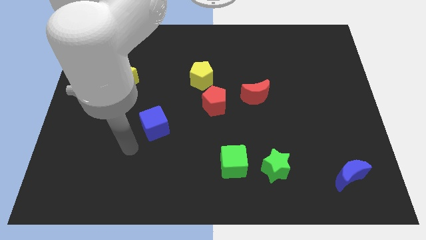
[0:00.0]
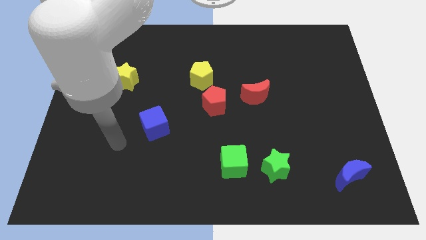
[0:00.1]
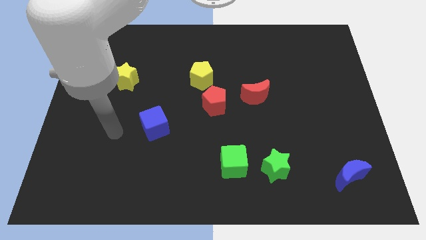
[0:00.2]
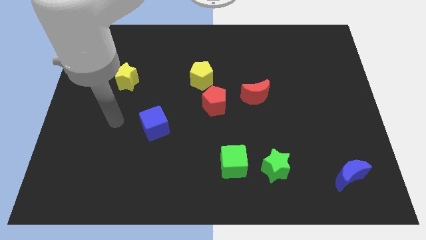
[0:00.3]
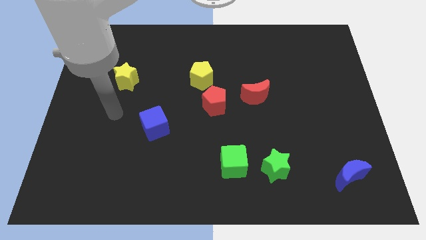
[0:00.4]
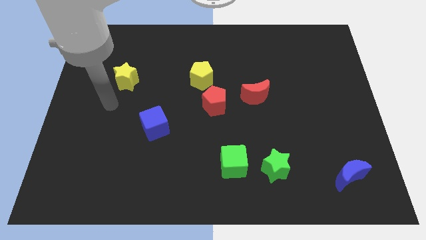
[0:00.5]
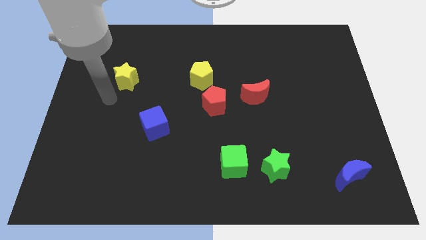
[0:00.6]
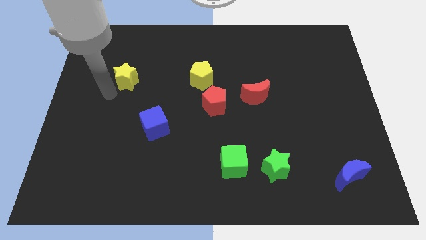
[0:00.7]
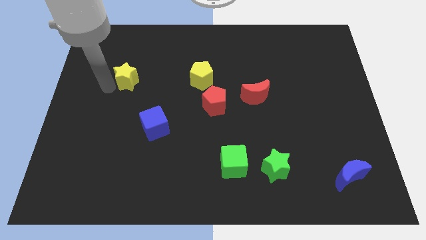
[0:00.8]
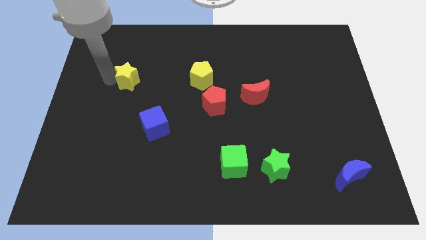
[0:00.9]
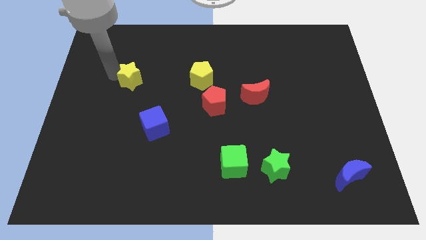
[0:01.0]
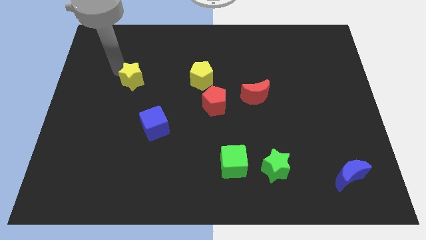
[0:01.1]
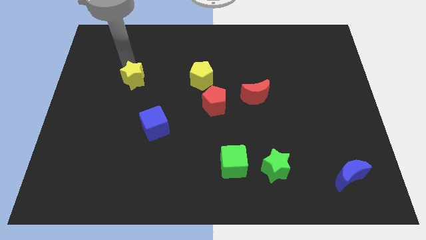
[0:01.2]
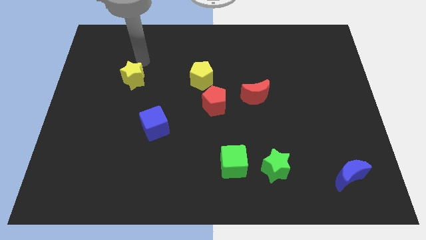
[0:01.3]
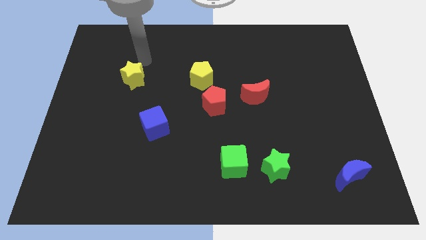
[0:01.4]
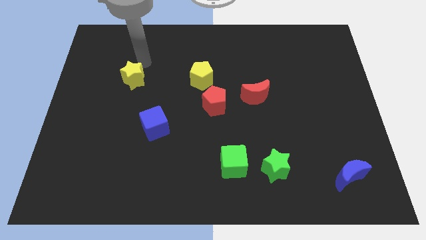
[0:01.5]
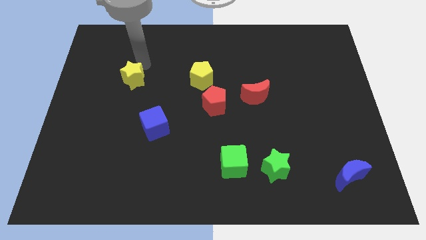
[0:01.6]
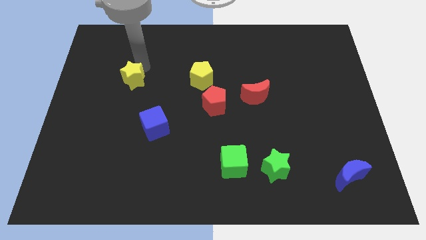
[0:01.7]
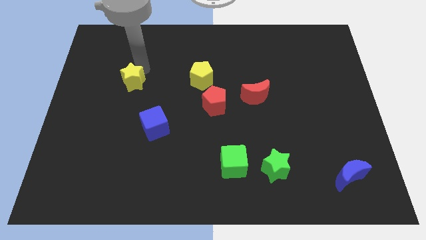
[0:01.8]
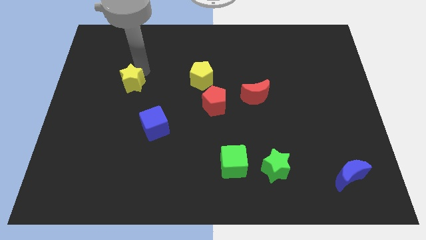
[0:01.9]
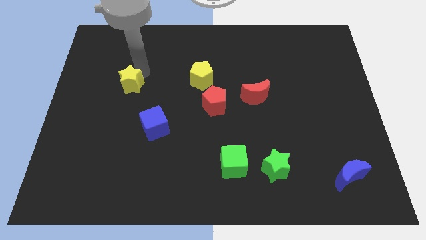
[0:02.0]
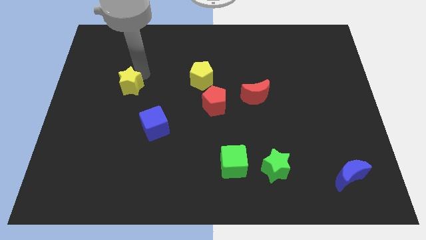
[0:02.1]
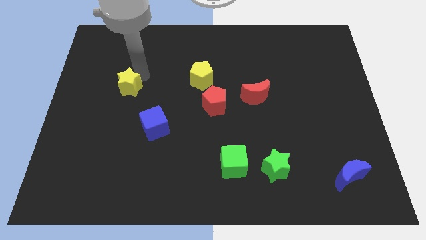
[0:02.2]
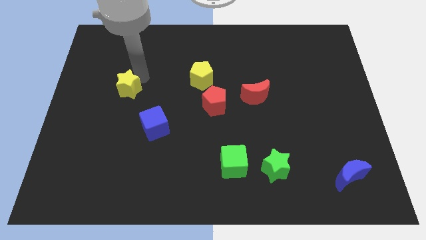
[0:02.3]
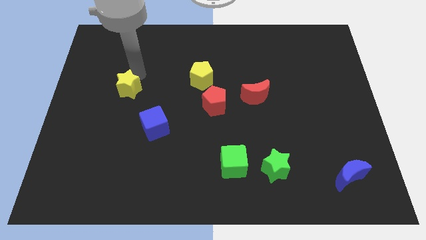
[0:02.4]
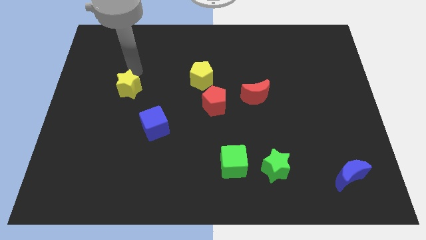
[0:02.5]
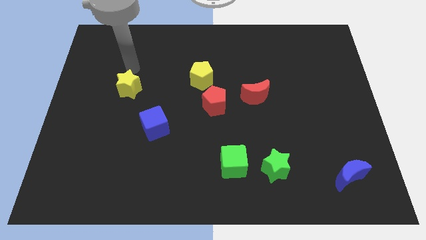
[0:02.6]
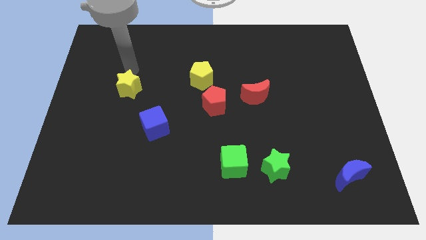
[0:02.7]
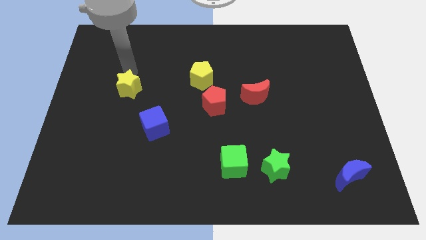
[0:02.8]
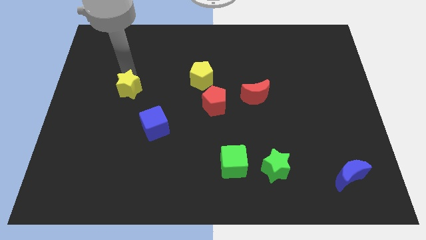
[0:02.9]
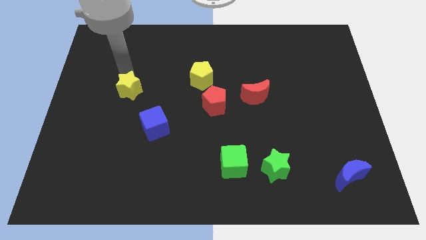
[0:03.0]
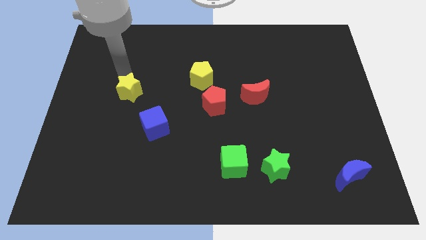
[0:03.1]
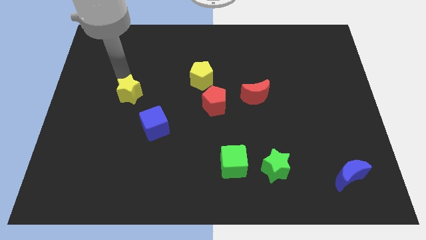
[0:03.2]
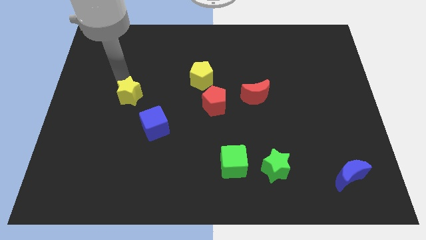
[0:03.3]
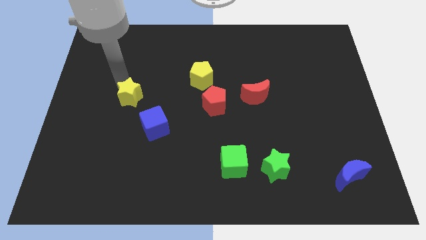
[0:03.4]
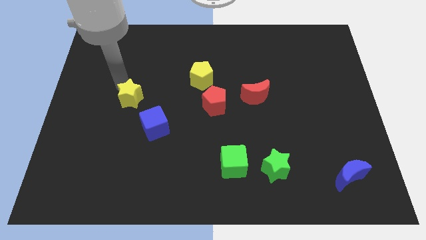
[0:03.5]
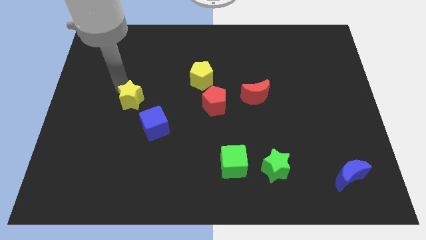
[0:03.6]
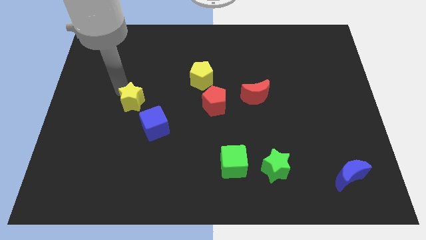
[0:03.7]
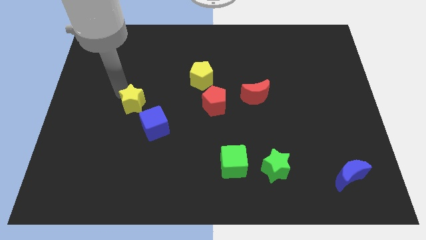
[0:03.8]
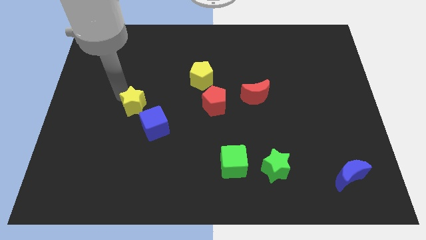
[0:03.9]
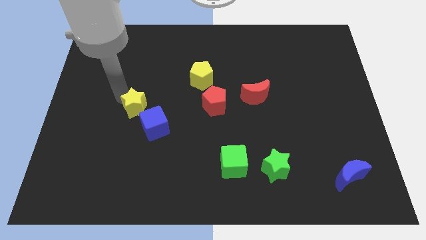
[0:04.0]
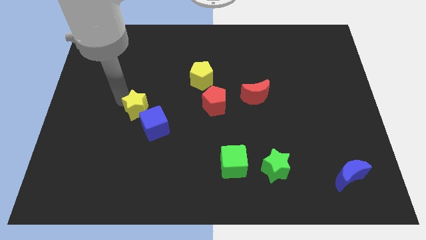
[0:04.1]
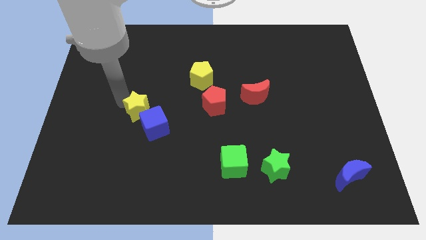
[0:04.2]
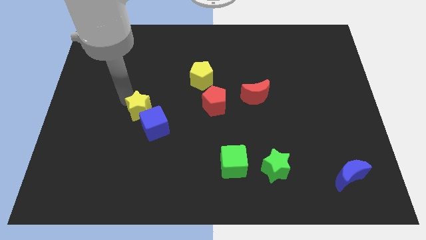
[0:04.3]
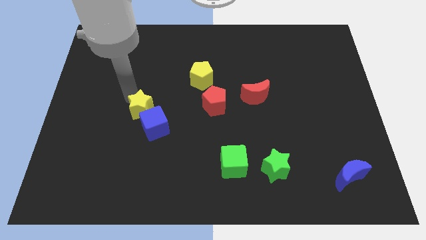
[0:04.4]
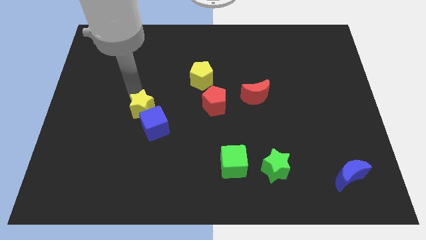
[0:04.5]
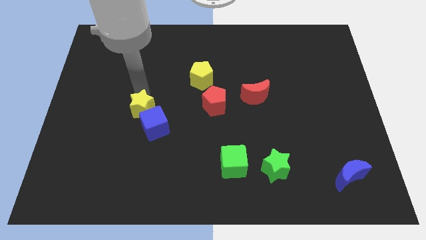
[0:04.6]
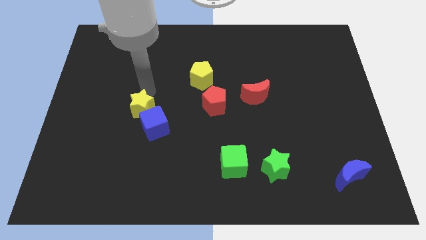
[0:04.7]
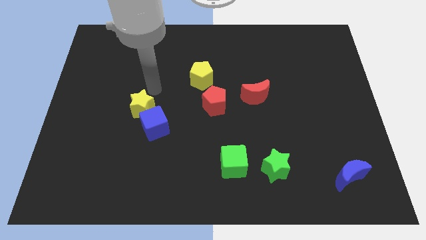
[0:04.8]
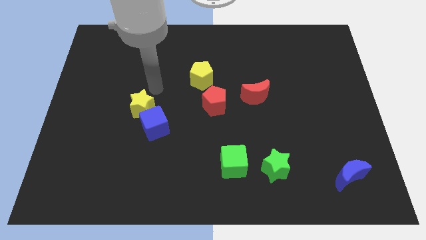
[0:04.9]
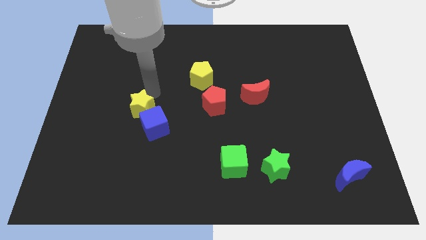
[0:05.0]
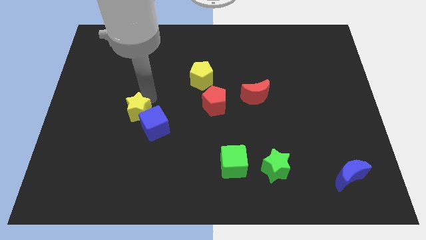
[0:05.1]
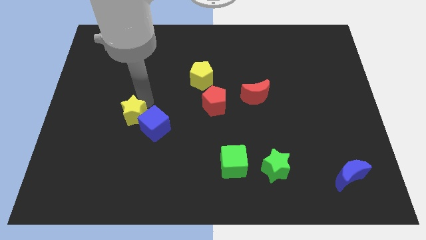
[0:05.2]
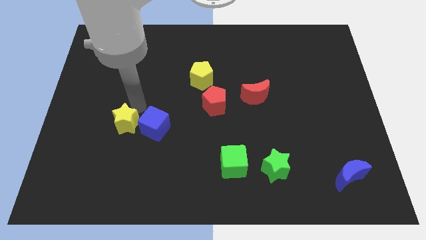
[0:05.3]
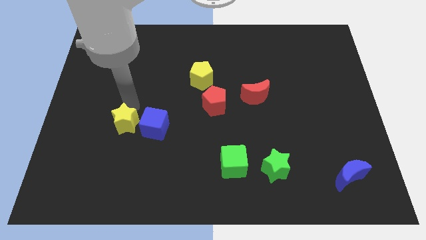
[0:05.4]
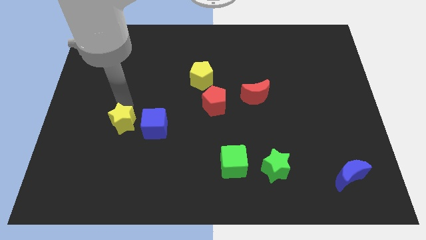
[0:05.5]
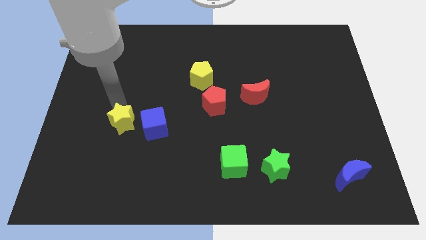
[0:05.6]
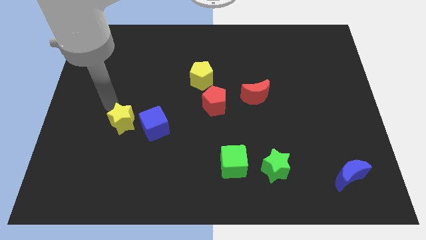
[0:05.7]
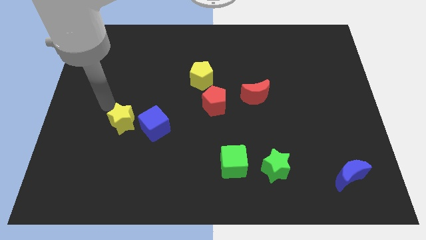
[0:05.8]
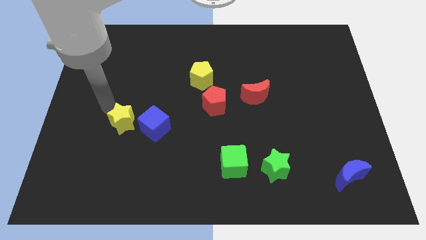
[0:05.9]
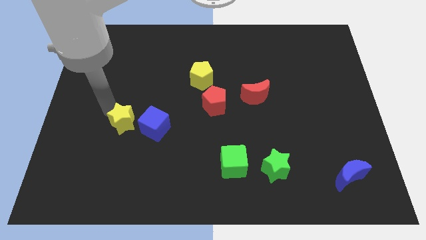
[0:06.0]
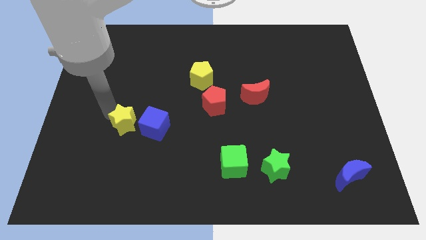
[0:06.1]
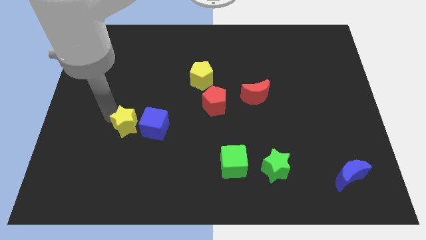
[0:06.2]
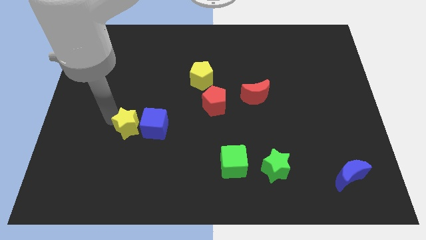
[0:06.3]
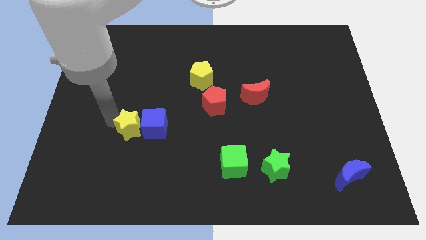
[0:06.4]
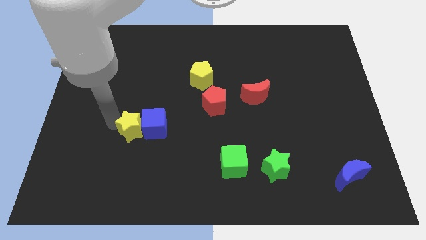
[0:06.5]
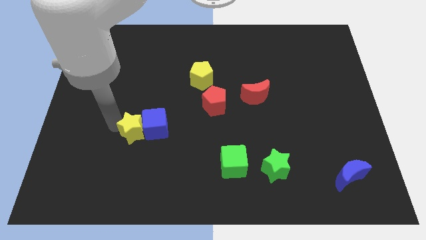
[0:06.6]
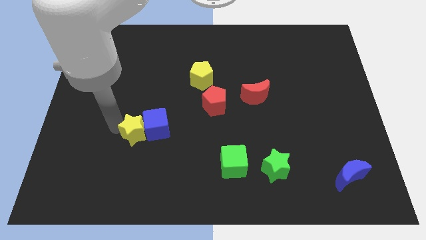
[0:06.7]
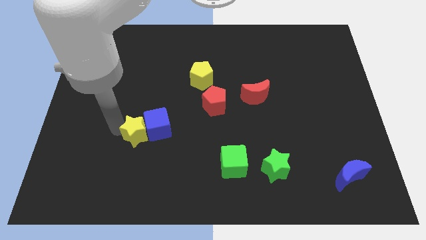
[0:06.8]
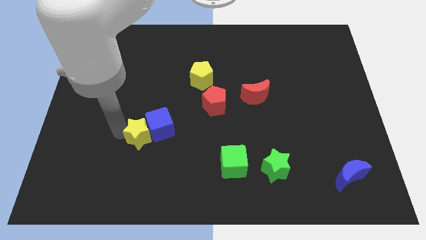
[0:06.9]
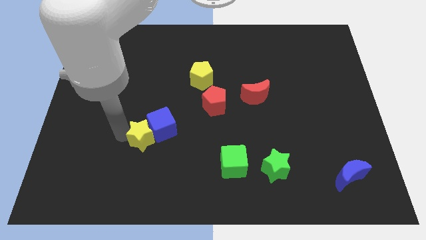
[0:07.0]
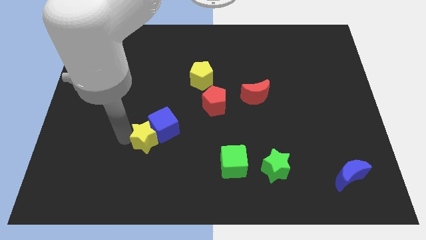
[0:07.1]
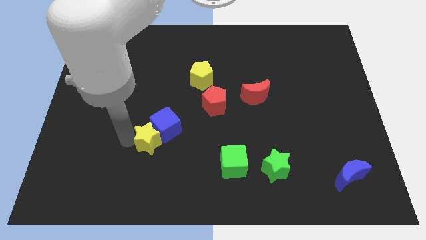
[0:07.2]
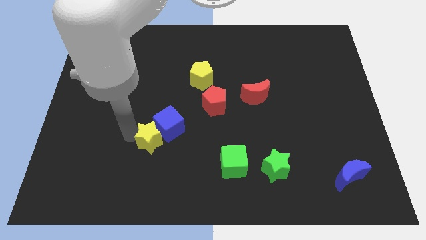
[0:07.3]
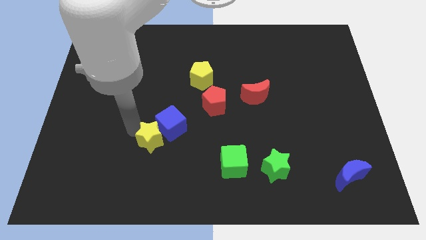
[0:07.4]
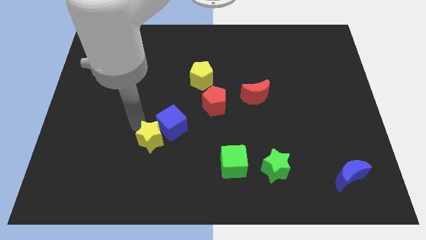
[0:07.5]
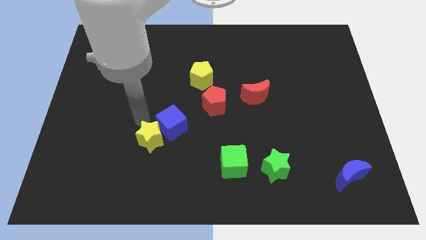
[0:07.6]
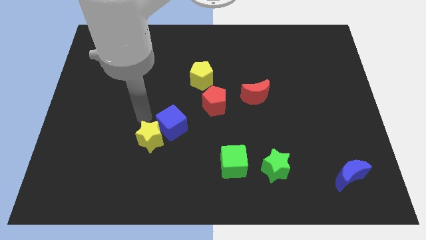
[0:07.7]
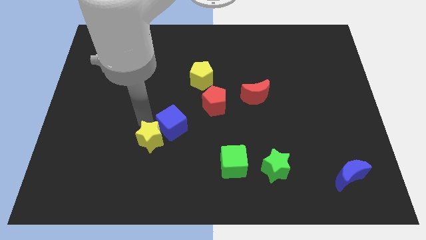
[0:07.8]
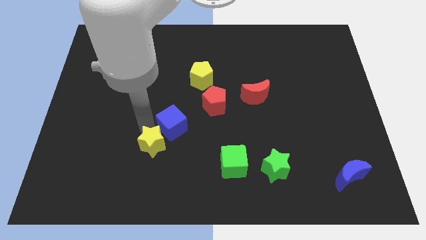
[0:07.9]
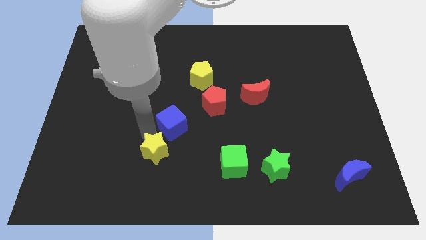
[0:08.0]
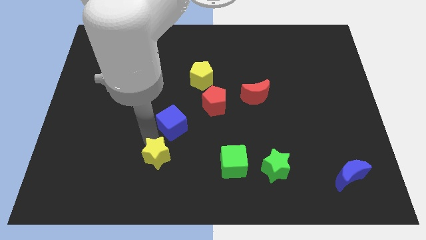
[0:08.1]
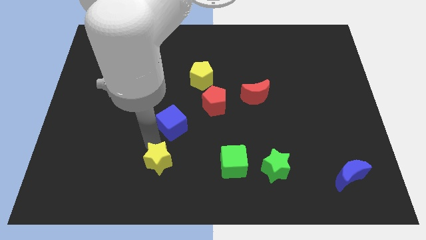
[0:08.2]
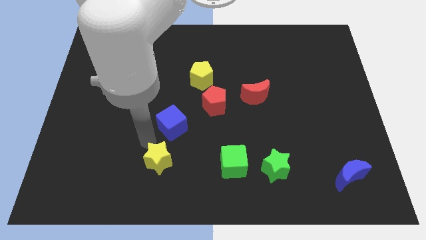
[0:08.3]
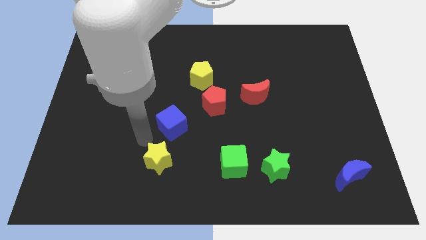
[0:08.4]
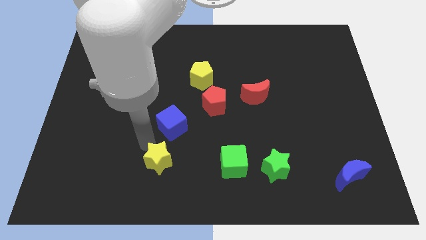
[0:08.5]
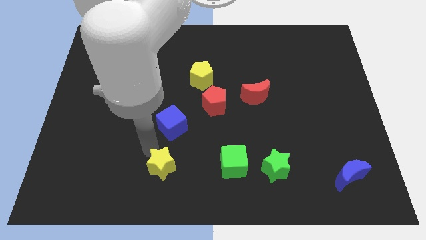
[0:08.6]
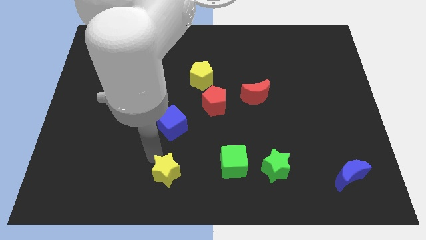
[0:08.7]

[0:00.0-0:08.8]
move the yellow star to the bottom
